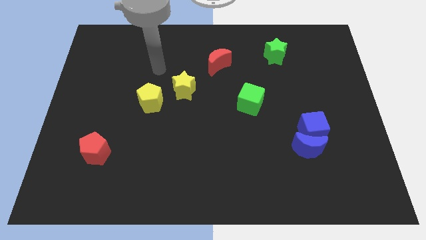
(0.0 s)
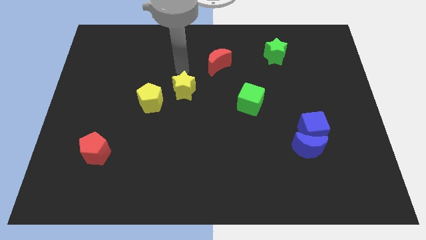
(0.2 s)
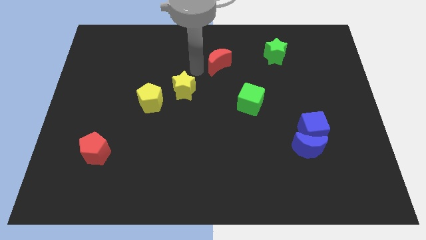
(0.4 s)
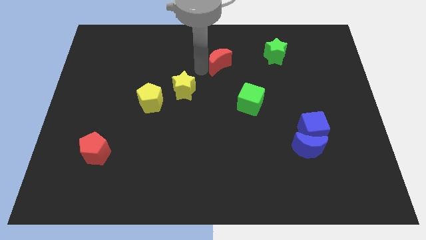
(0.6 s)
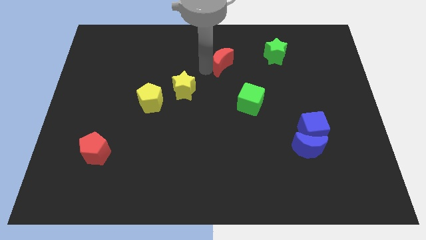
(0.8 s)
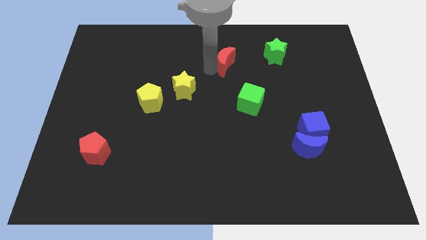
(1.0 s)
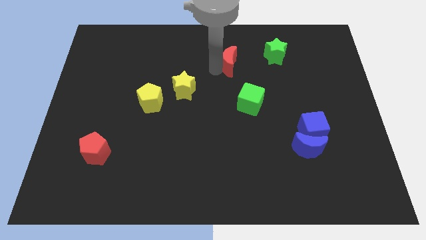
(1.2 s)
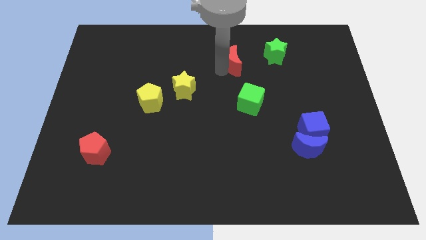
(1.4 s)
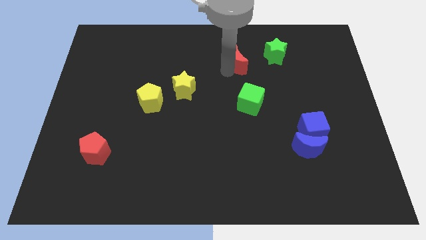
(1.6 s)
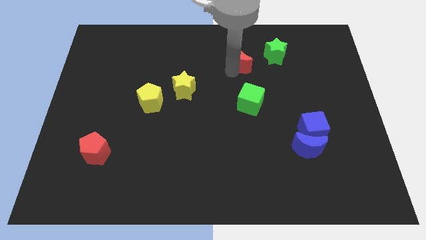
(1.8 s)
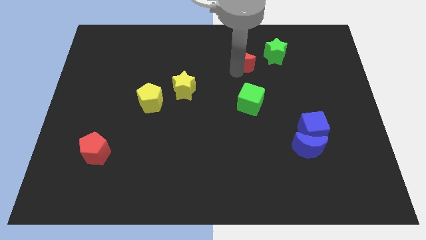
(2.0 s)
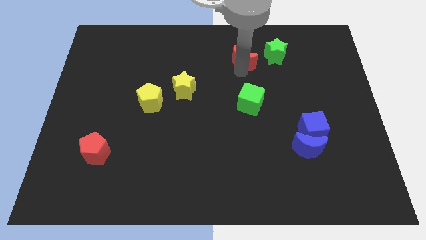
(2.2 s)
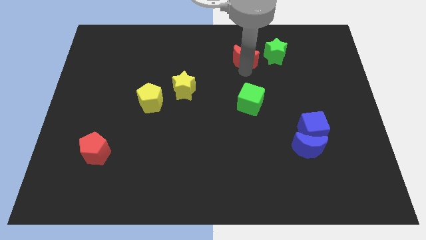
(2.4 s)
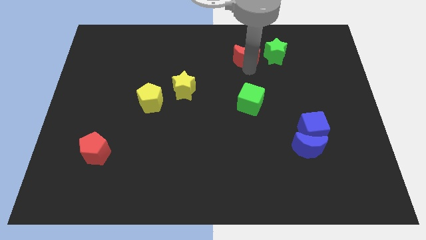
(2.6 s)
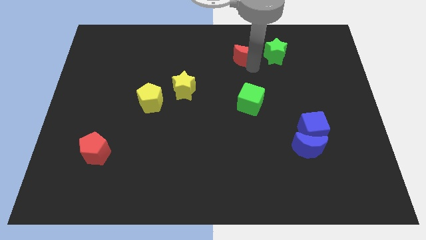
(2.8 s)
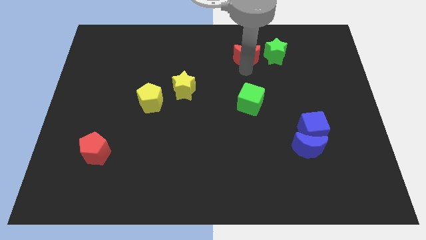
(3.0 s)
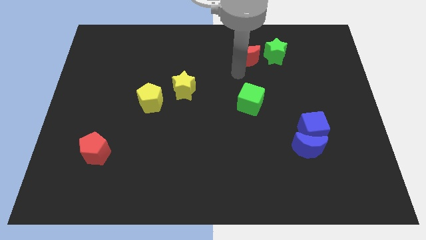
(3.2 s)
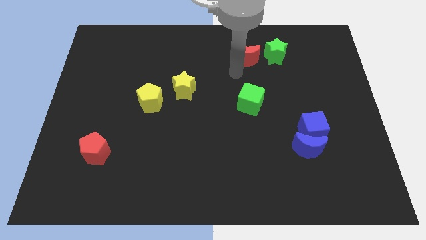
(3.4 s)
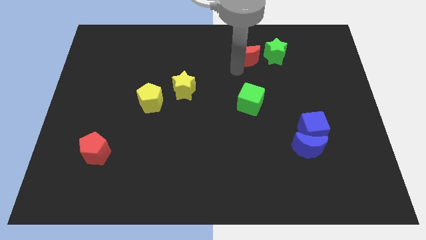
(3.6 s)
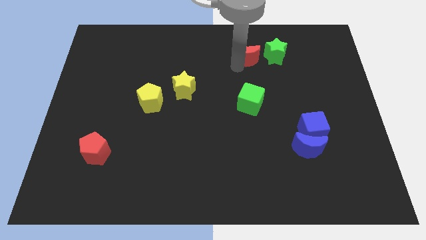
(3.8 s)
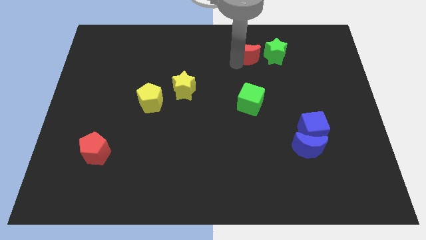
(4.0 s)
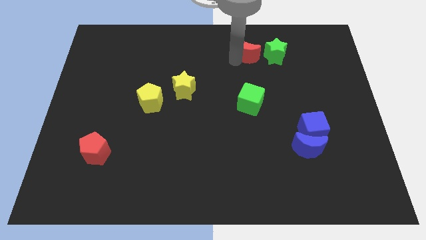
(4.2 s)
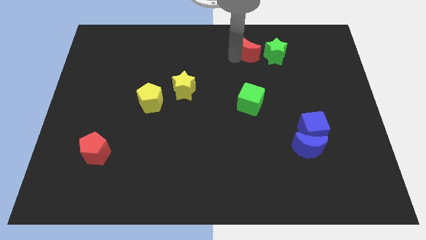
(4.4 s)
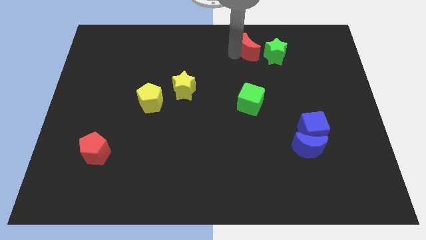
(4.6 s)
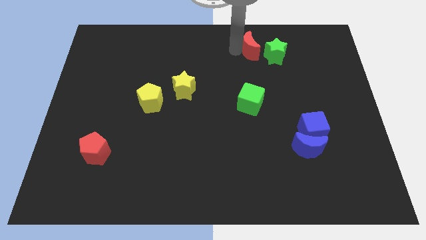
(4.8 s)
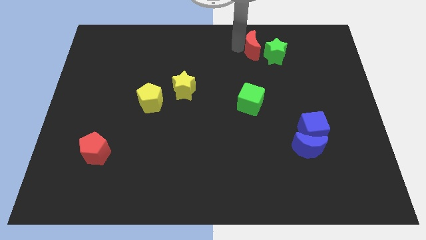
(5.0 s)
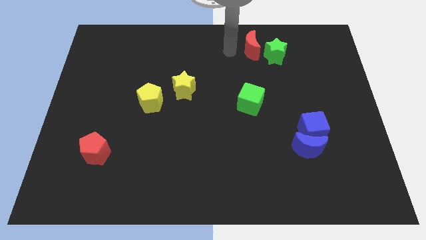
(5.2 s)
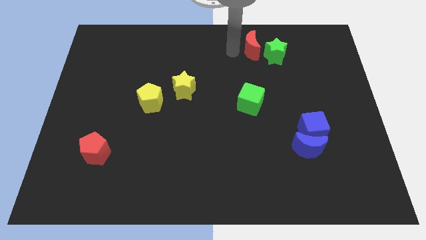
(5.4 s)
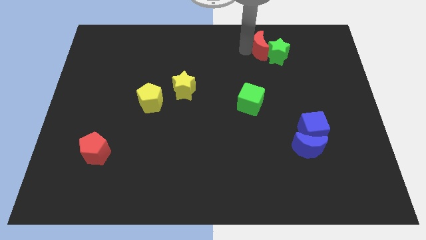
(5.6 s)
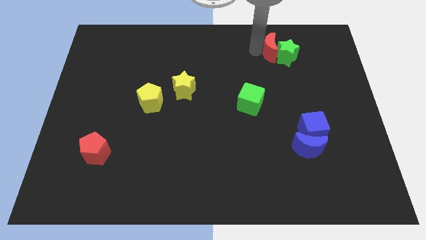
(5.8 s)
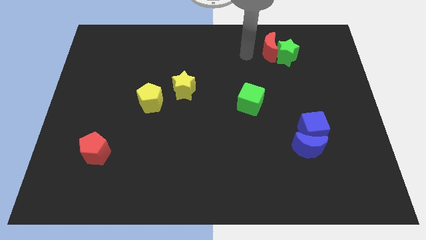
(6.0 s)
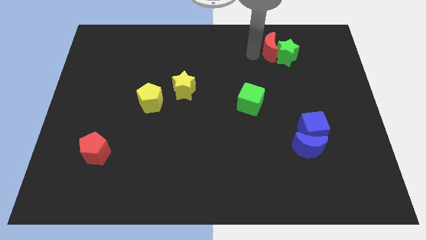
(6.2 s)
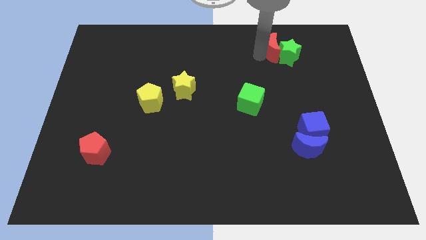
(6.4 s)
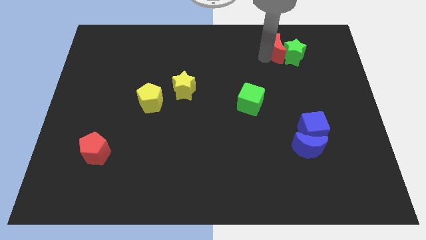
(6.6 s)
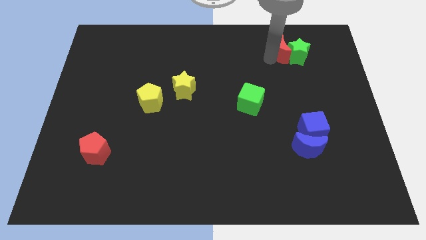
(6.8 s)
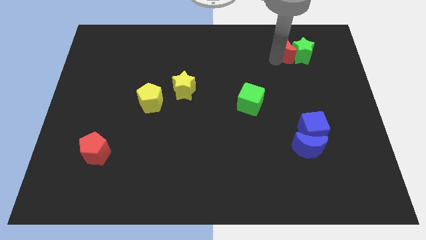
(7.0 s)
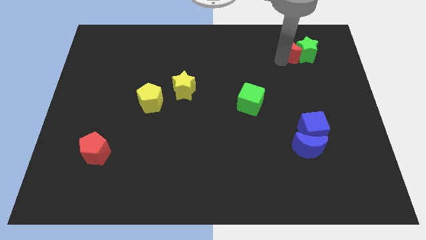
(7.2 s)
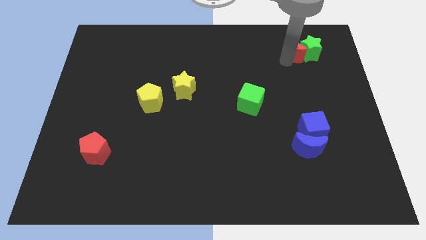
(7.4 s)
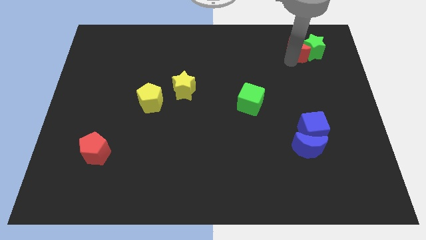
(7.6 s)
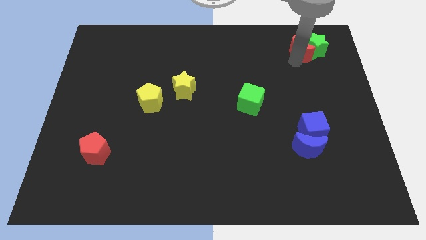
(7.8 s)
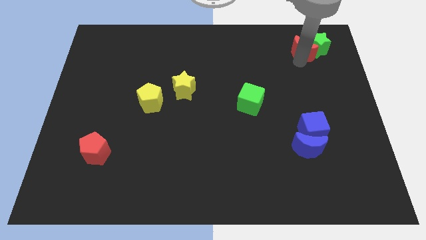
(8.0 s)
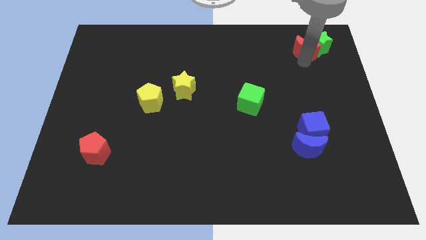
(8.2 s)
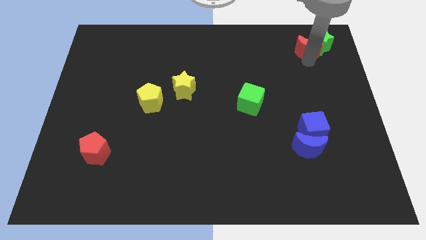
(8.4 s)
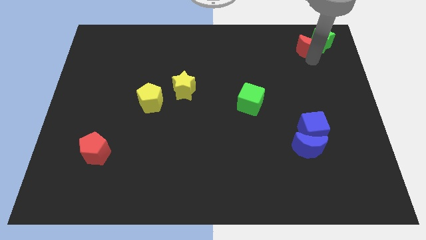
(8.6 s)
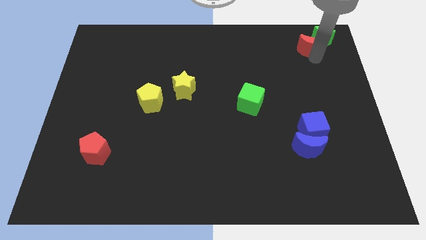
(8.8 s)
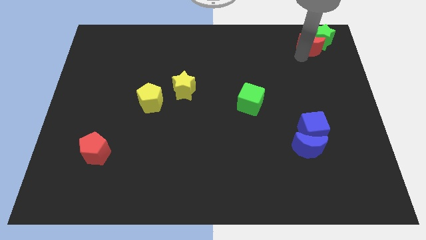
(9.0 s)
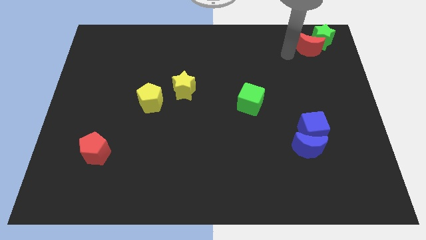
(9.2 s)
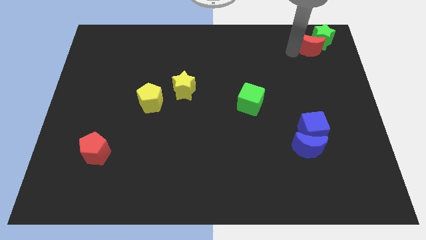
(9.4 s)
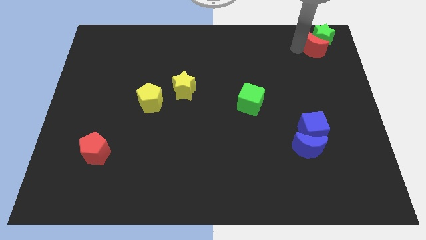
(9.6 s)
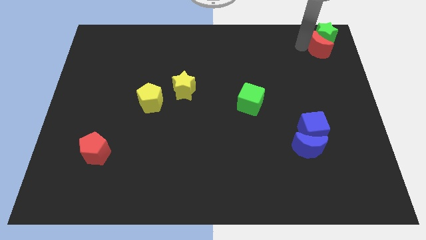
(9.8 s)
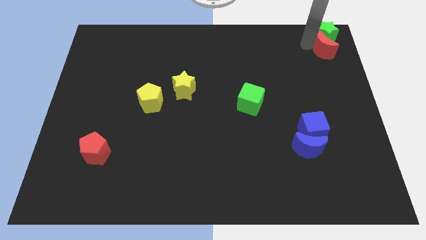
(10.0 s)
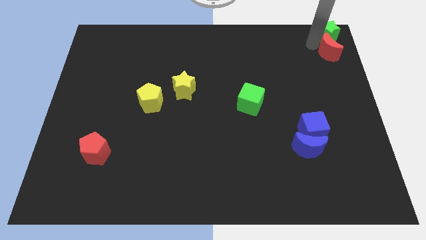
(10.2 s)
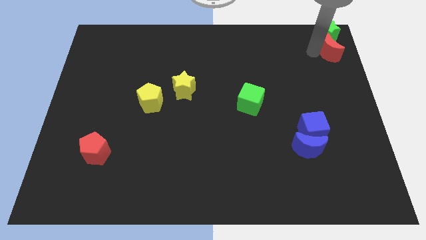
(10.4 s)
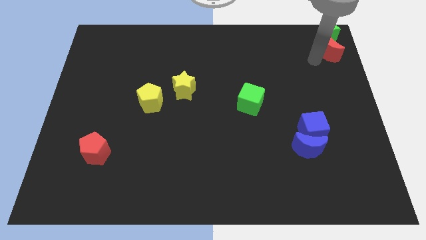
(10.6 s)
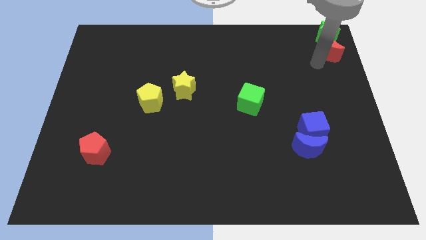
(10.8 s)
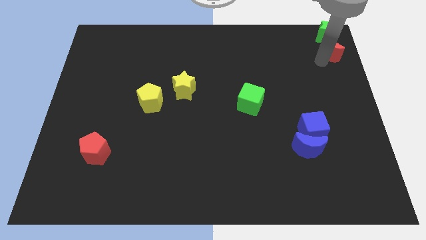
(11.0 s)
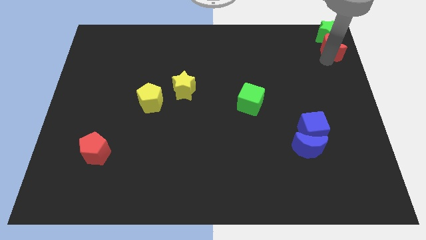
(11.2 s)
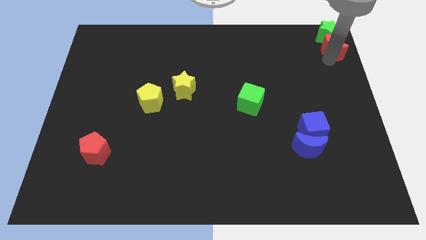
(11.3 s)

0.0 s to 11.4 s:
move the red moon to the top right corner

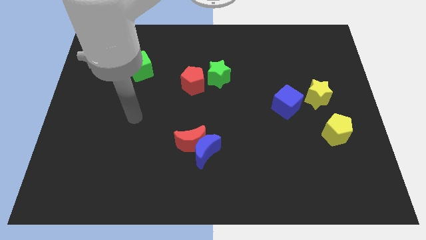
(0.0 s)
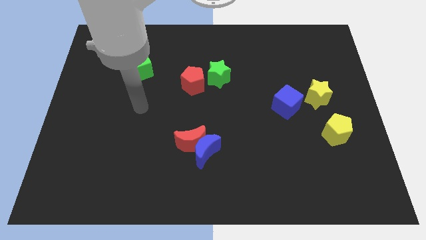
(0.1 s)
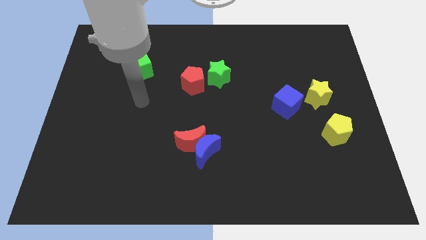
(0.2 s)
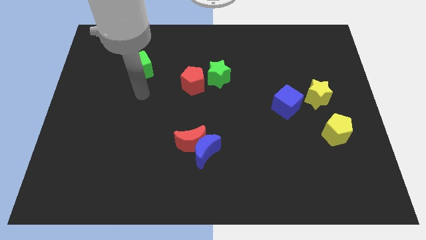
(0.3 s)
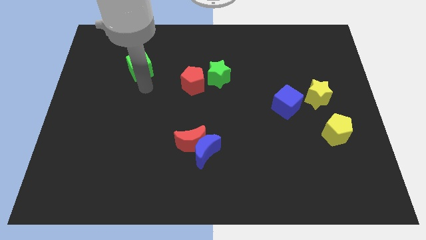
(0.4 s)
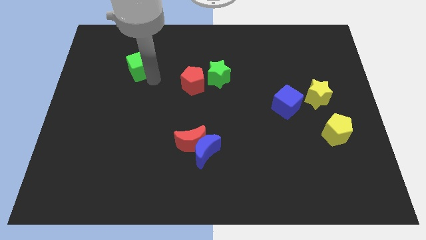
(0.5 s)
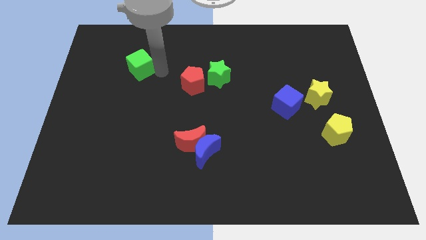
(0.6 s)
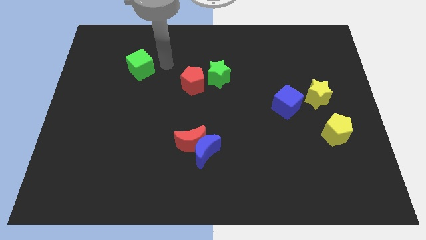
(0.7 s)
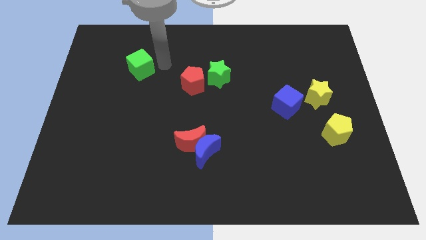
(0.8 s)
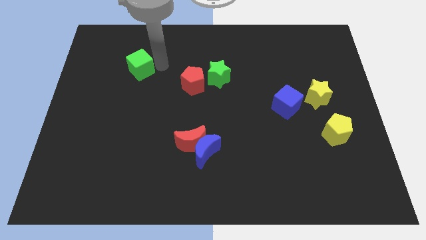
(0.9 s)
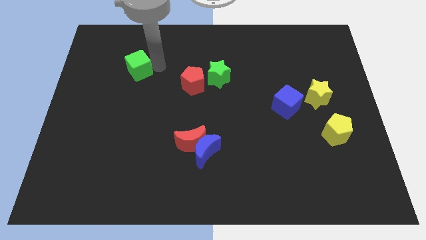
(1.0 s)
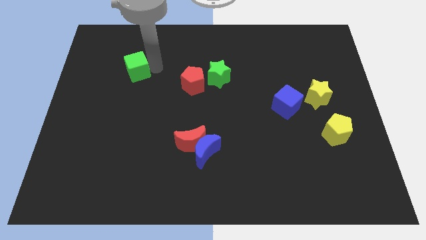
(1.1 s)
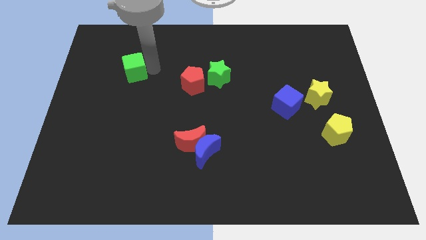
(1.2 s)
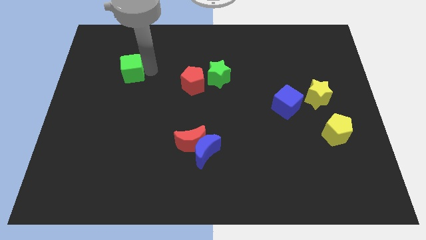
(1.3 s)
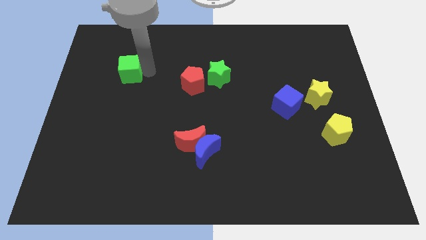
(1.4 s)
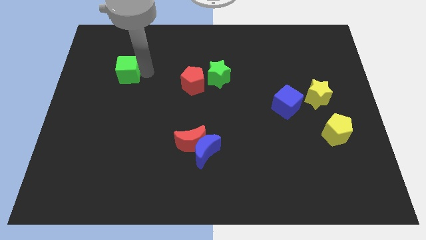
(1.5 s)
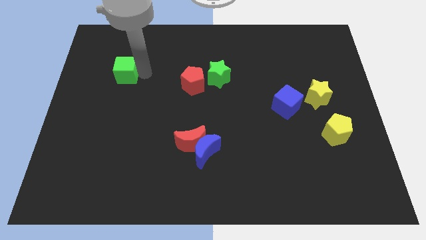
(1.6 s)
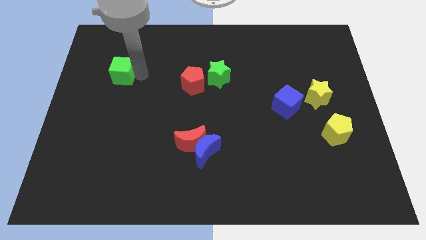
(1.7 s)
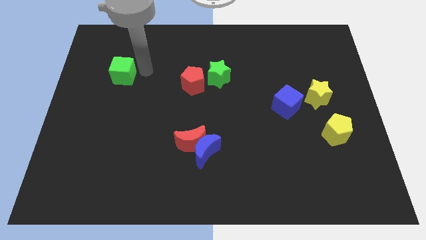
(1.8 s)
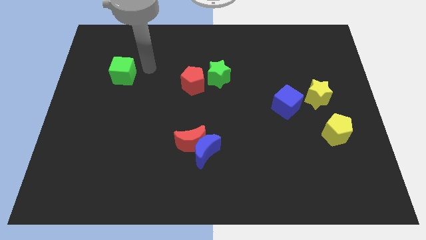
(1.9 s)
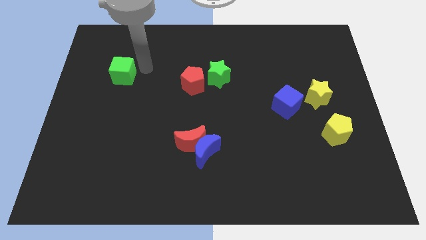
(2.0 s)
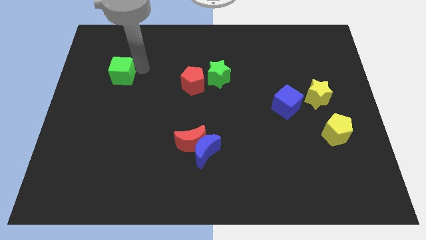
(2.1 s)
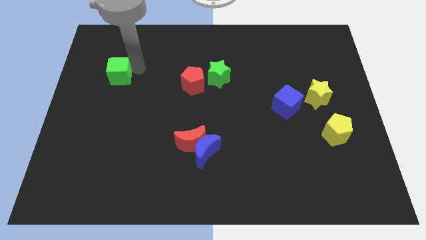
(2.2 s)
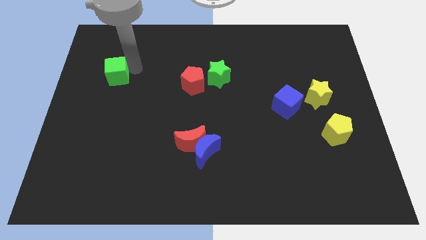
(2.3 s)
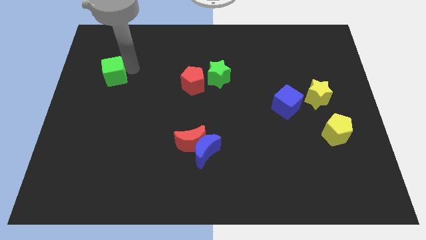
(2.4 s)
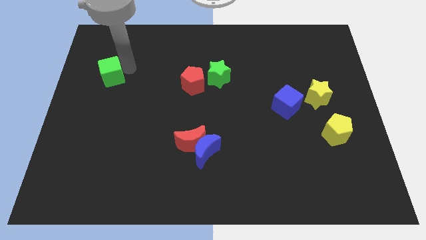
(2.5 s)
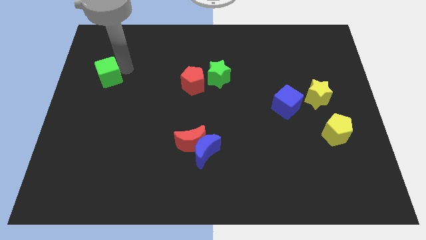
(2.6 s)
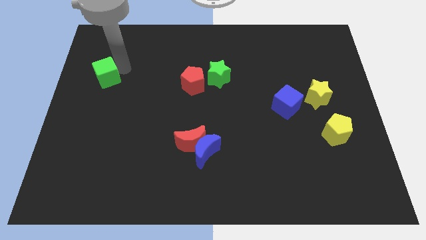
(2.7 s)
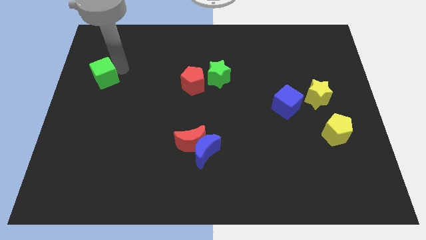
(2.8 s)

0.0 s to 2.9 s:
slide the green cube to the center left
